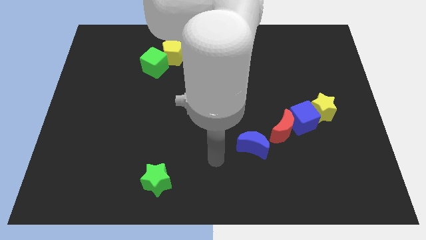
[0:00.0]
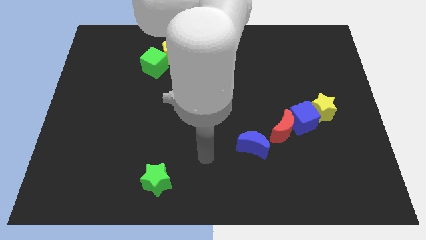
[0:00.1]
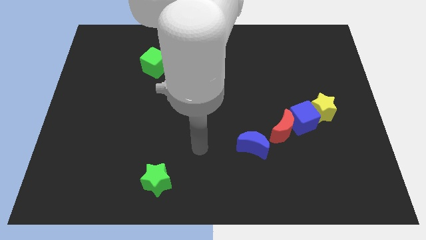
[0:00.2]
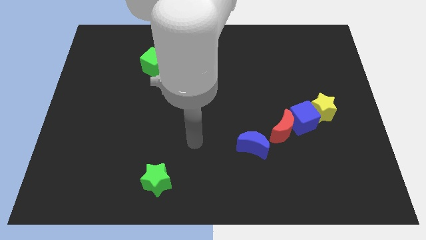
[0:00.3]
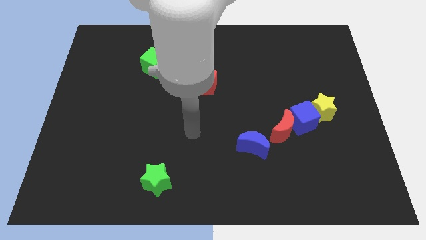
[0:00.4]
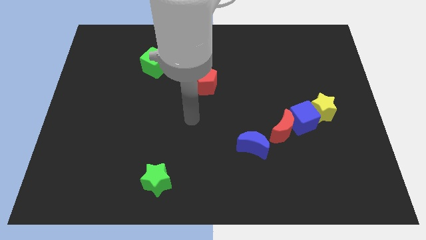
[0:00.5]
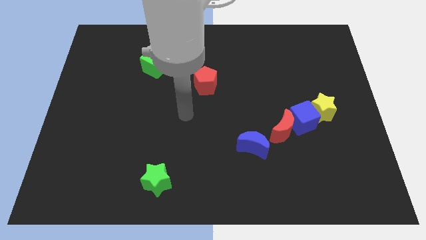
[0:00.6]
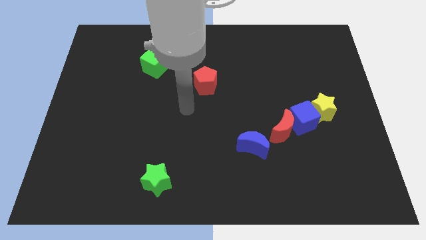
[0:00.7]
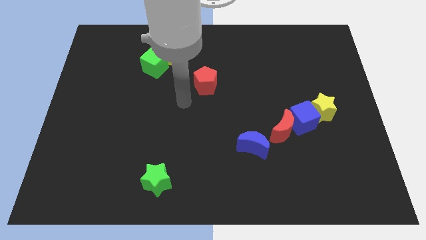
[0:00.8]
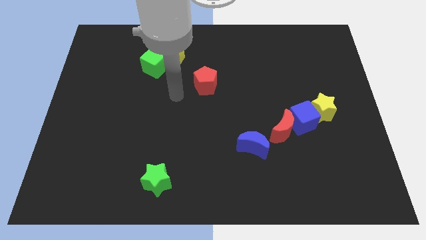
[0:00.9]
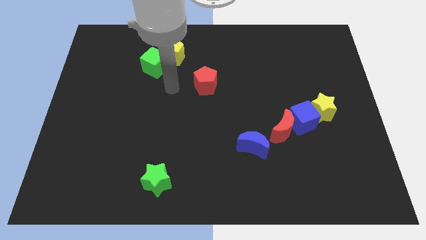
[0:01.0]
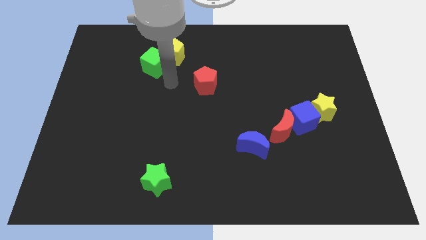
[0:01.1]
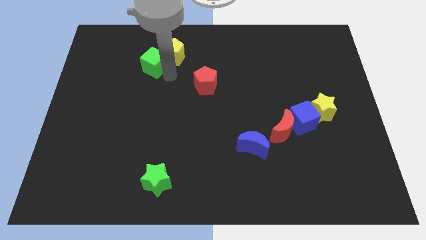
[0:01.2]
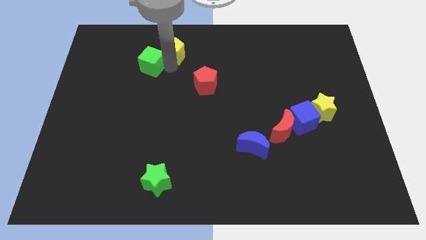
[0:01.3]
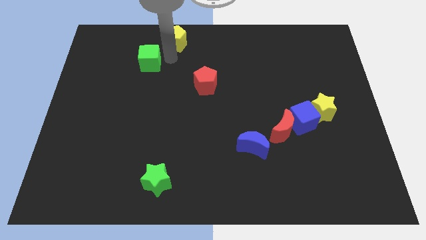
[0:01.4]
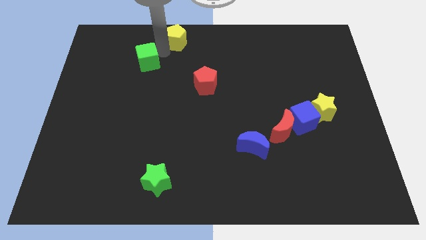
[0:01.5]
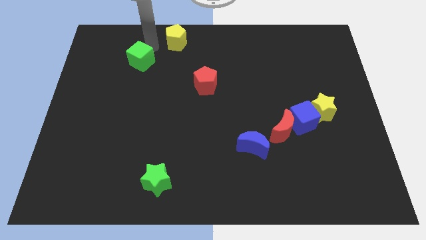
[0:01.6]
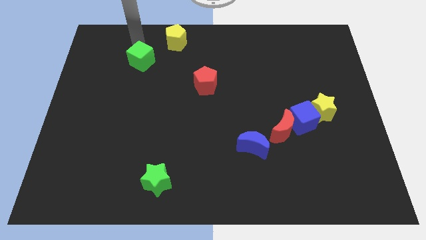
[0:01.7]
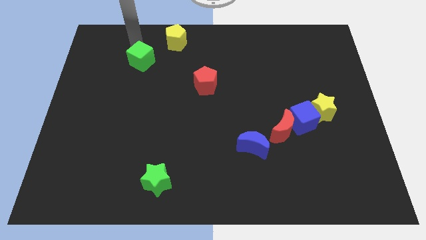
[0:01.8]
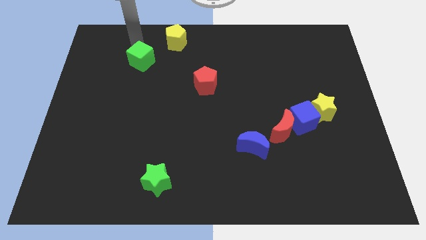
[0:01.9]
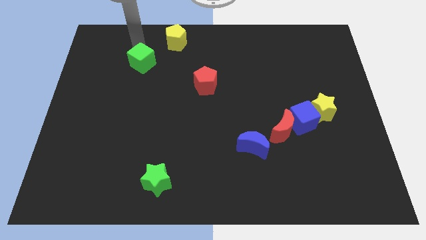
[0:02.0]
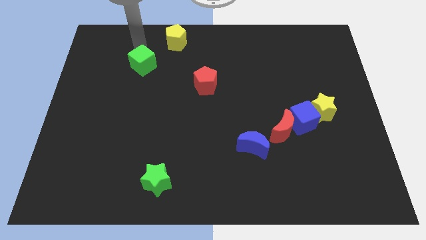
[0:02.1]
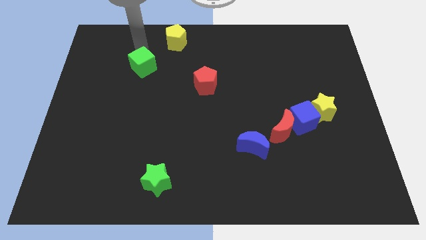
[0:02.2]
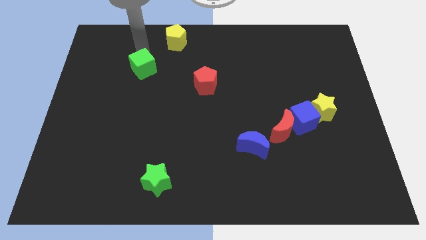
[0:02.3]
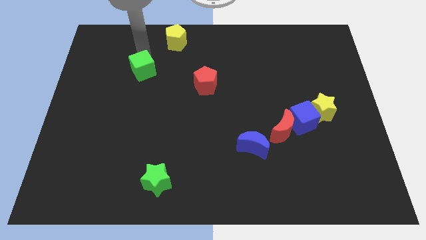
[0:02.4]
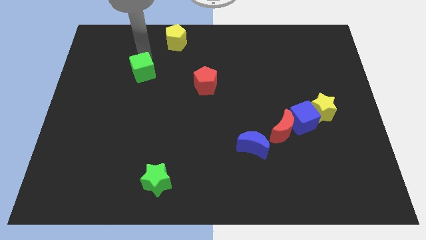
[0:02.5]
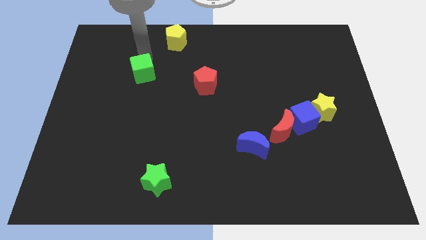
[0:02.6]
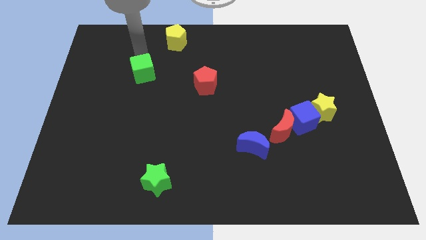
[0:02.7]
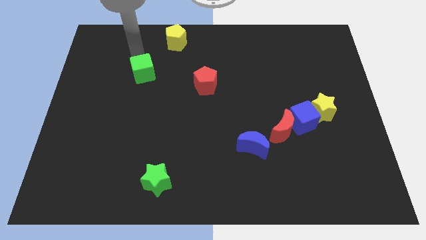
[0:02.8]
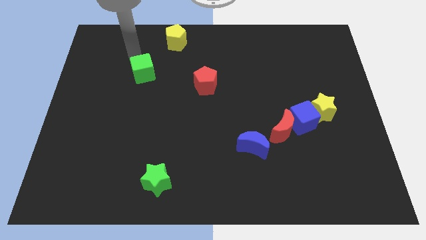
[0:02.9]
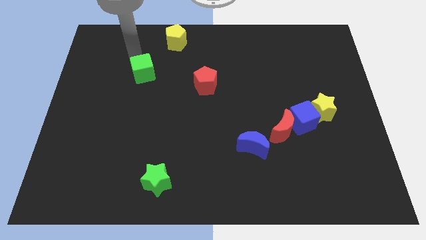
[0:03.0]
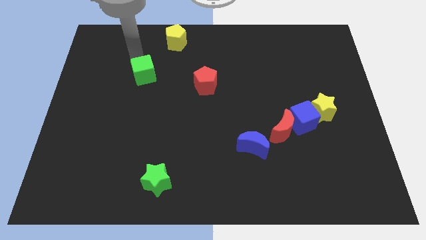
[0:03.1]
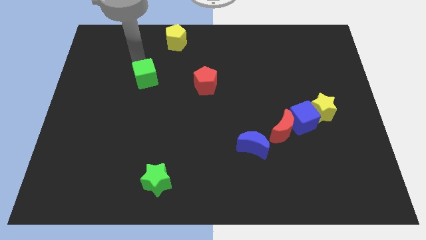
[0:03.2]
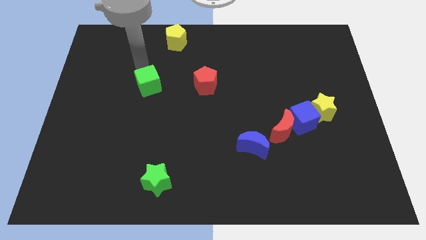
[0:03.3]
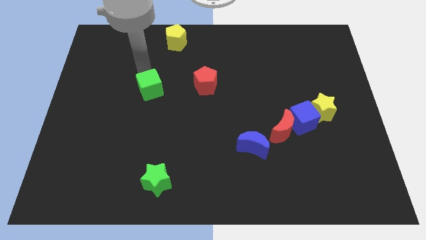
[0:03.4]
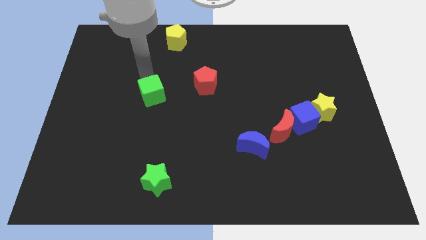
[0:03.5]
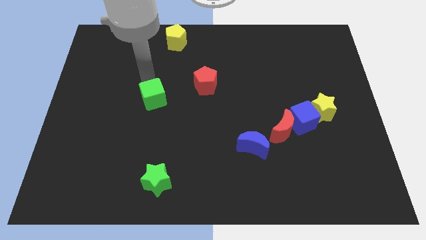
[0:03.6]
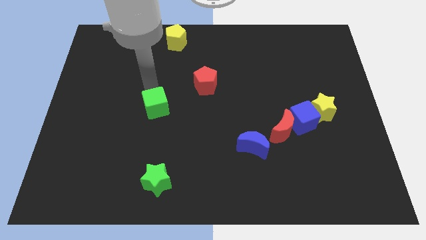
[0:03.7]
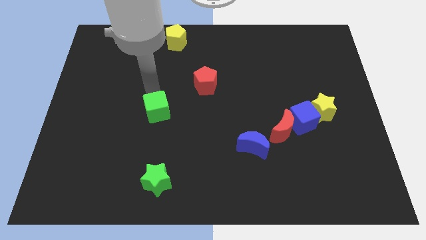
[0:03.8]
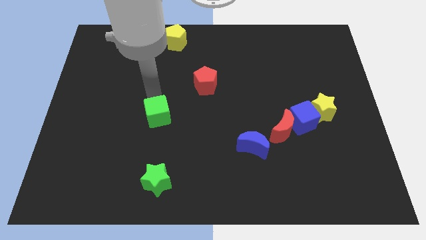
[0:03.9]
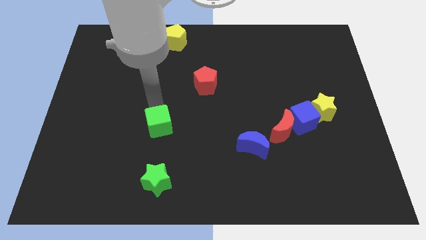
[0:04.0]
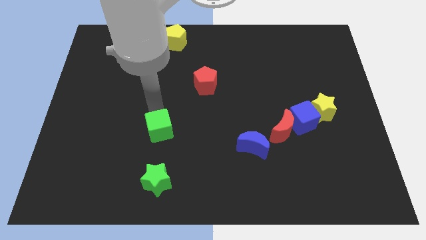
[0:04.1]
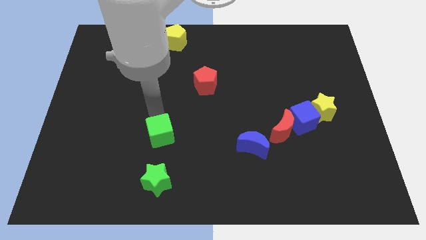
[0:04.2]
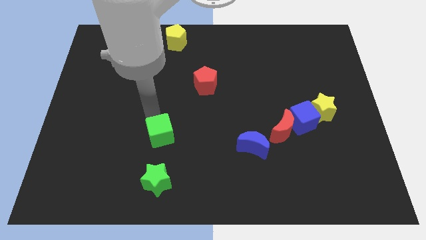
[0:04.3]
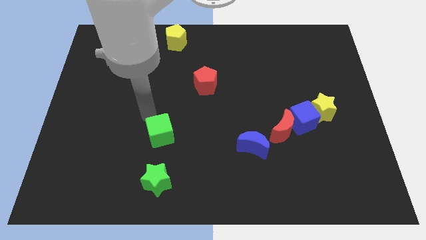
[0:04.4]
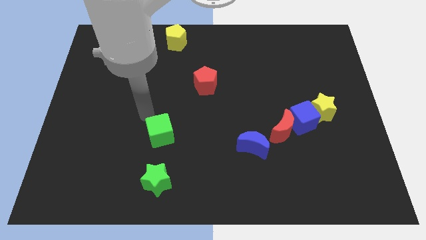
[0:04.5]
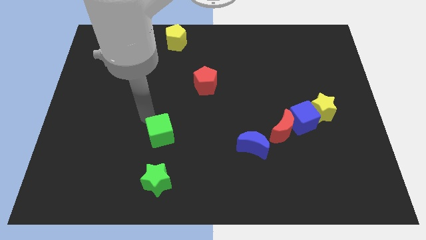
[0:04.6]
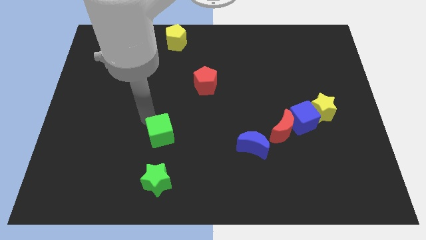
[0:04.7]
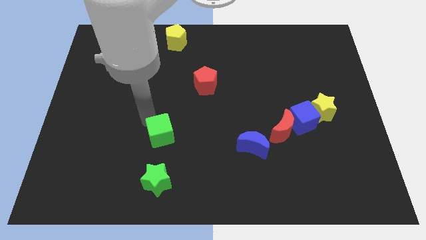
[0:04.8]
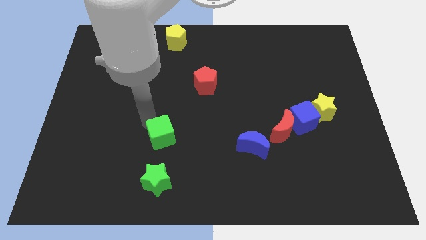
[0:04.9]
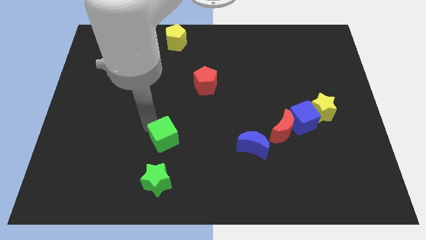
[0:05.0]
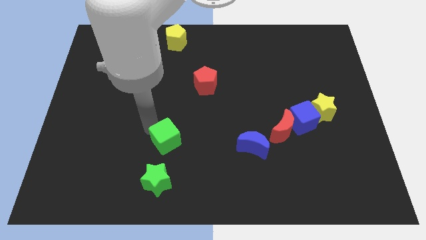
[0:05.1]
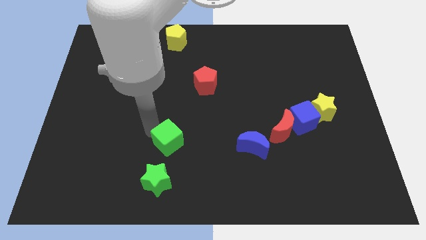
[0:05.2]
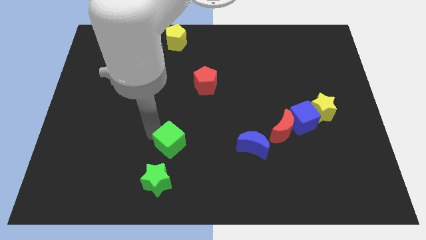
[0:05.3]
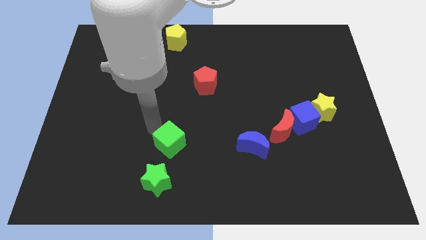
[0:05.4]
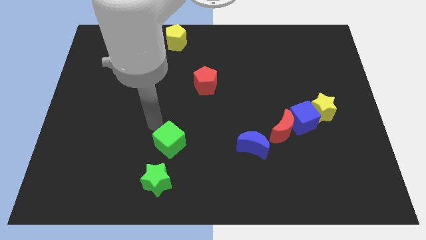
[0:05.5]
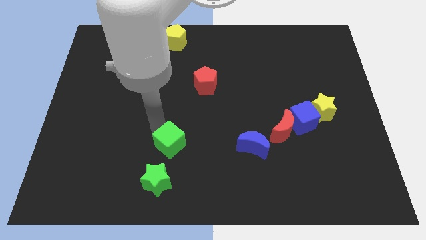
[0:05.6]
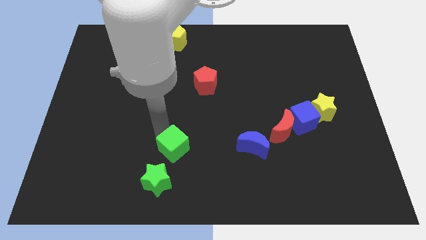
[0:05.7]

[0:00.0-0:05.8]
put the green cube to the top right side of the green star

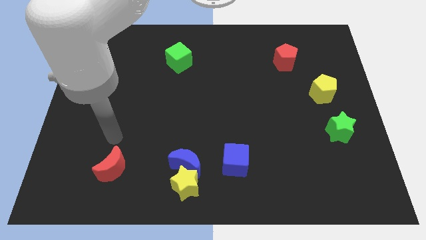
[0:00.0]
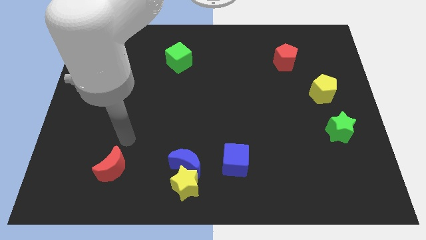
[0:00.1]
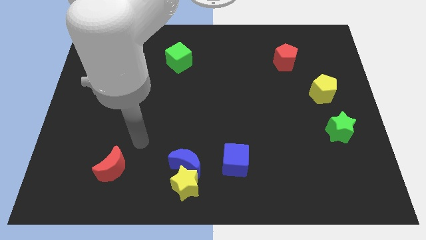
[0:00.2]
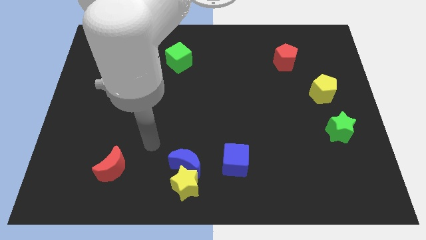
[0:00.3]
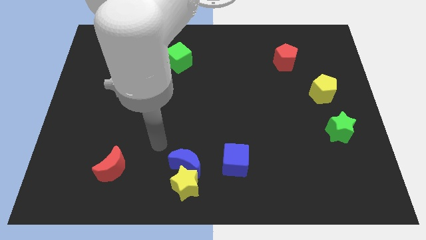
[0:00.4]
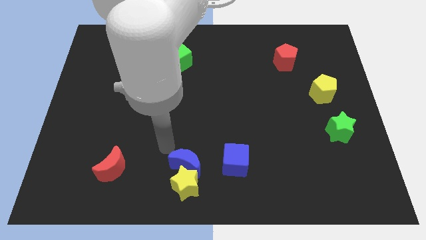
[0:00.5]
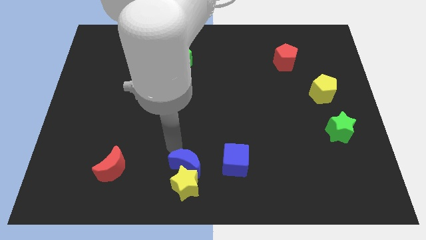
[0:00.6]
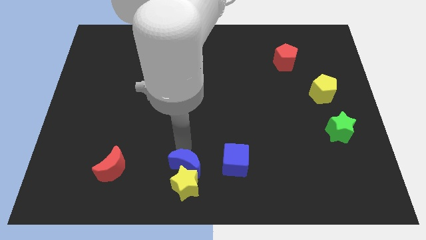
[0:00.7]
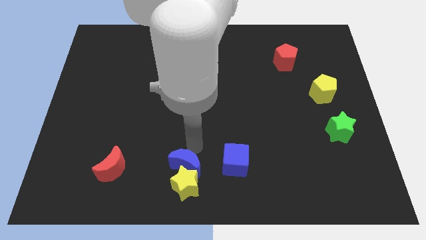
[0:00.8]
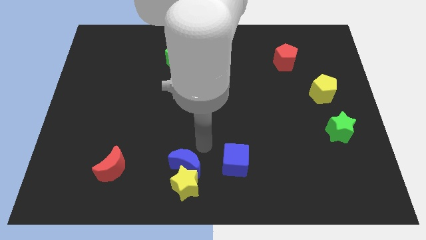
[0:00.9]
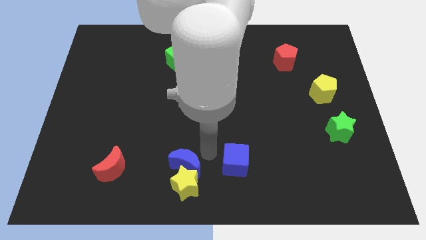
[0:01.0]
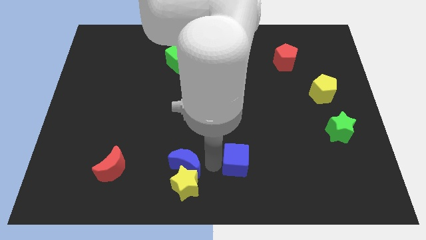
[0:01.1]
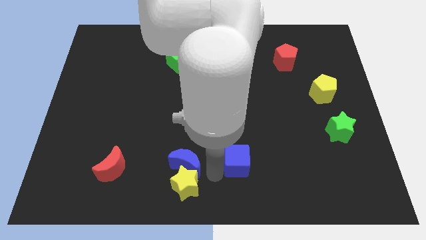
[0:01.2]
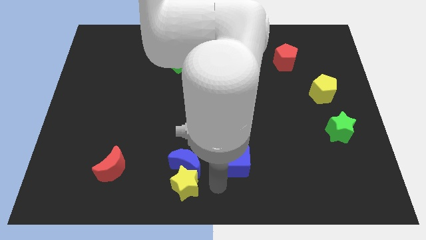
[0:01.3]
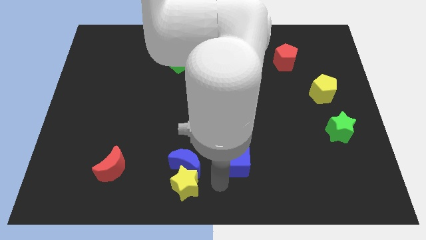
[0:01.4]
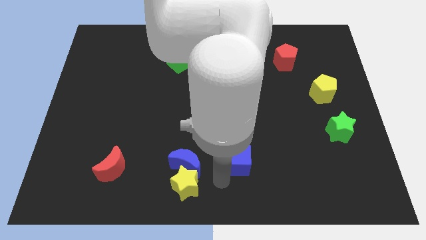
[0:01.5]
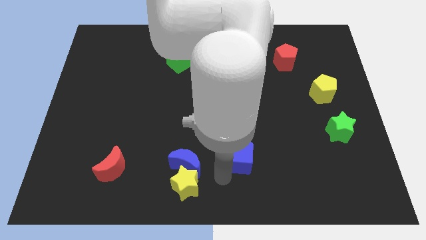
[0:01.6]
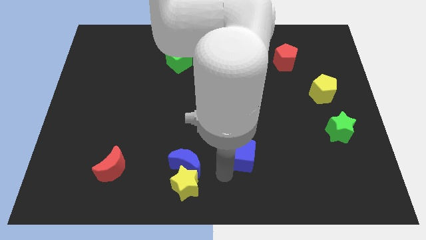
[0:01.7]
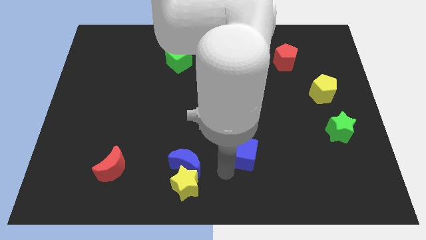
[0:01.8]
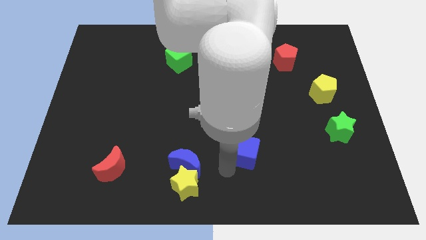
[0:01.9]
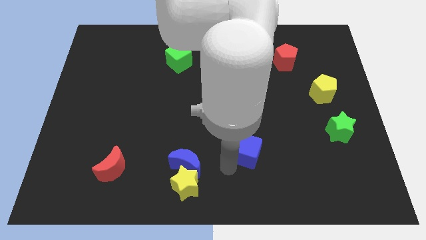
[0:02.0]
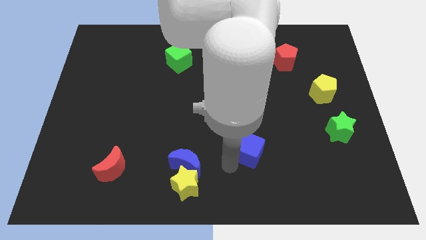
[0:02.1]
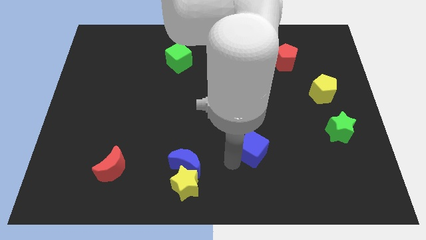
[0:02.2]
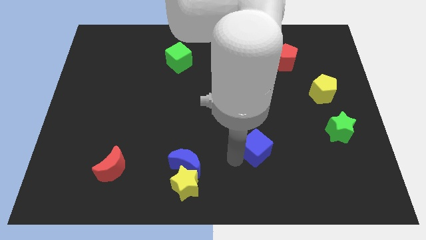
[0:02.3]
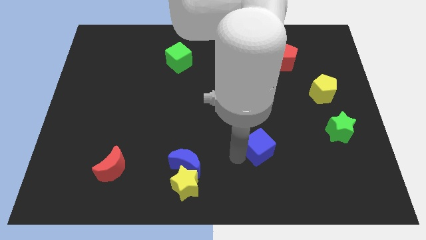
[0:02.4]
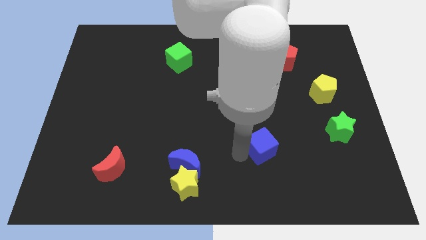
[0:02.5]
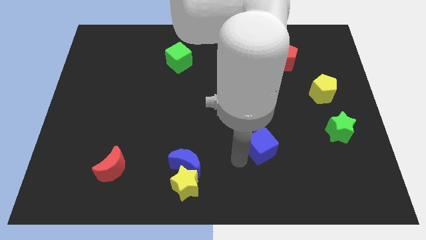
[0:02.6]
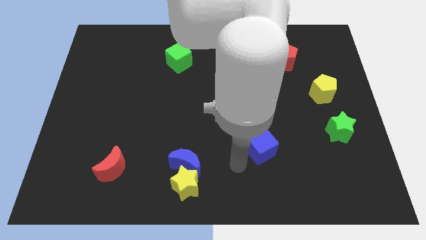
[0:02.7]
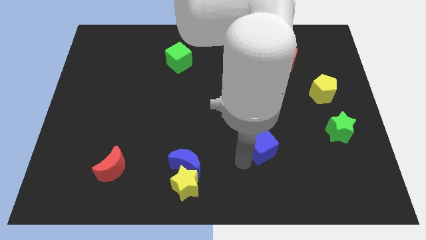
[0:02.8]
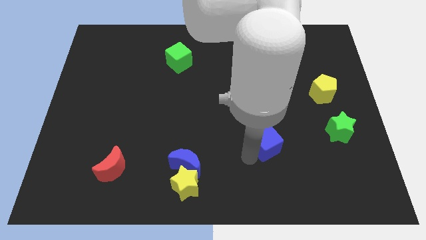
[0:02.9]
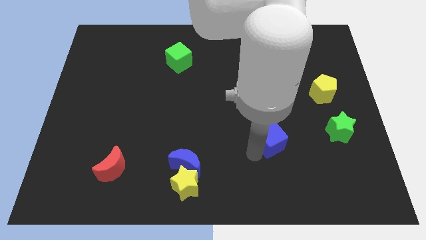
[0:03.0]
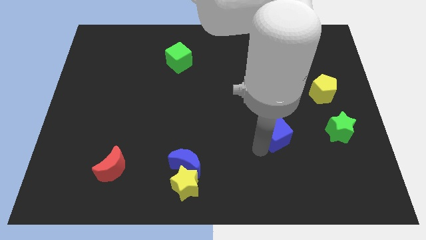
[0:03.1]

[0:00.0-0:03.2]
put the blue cube to the left of the green star
